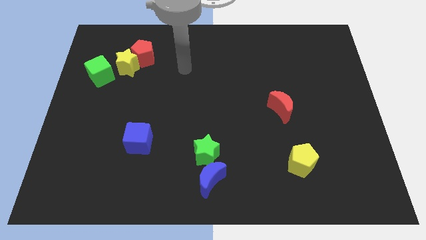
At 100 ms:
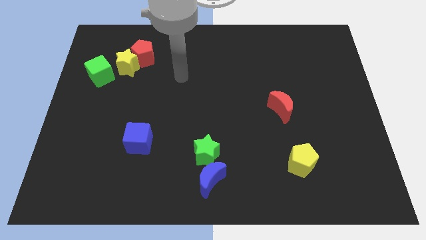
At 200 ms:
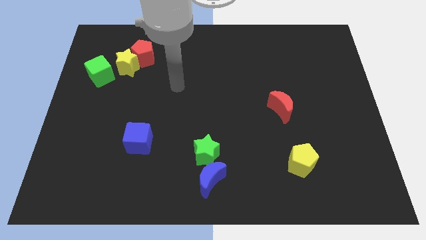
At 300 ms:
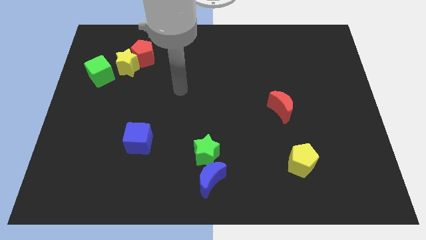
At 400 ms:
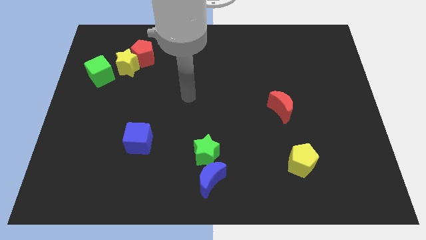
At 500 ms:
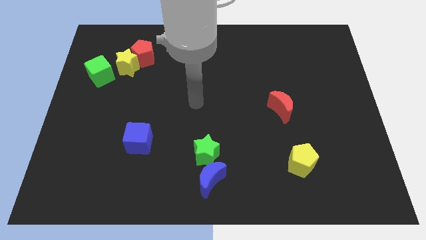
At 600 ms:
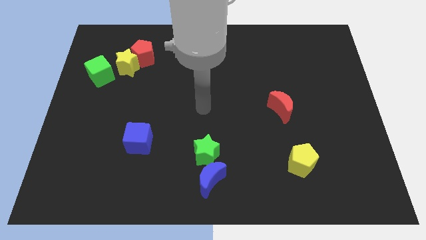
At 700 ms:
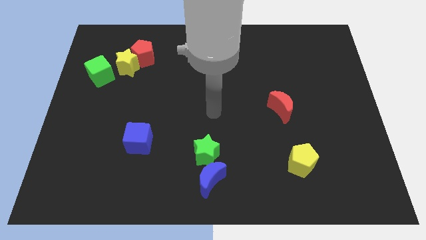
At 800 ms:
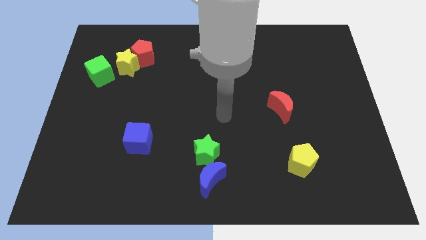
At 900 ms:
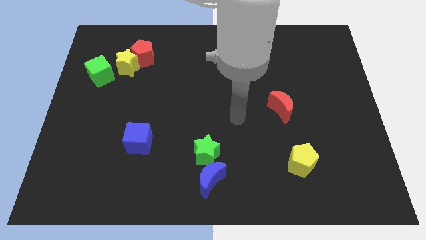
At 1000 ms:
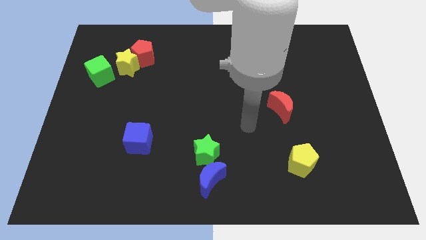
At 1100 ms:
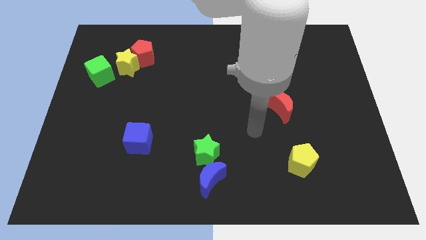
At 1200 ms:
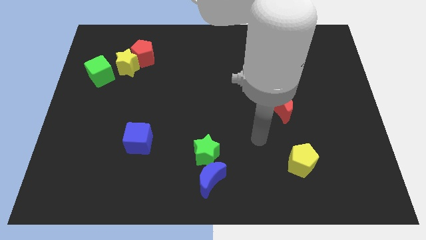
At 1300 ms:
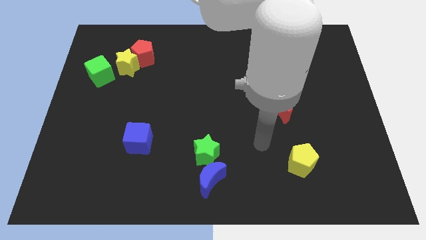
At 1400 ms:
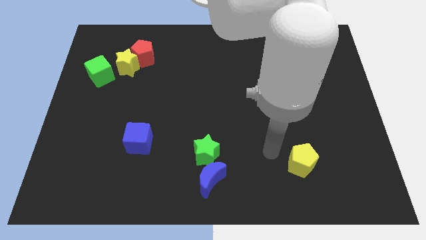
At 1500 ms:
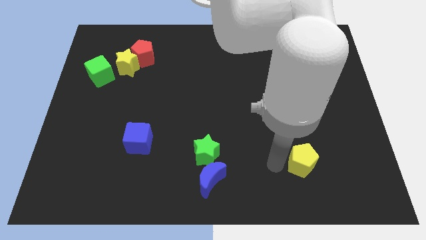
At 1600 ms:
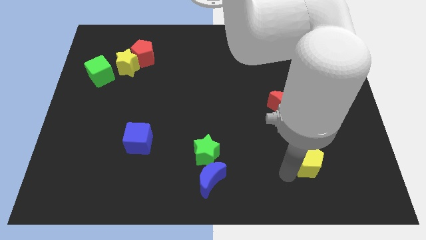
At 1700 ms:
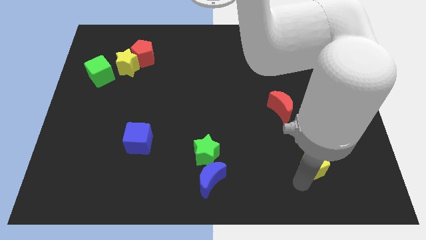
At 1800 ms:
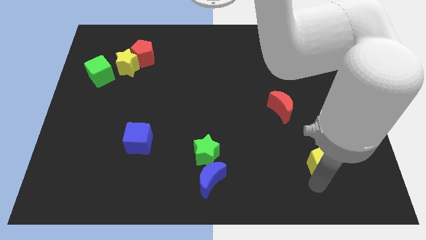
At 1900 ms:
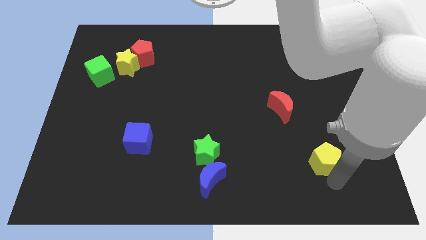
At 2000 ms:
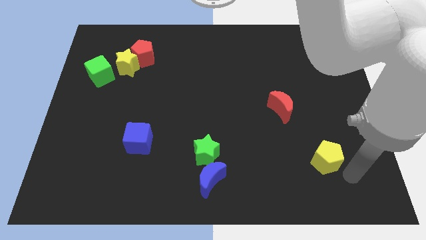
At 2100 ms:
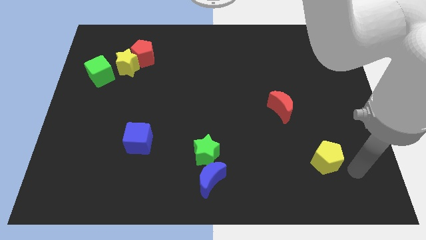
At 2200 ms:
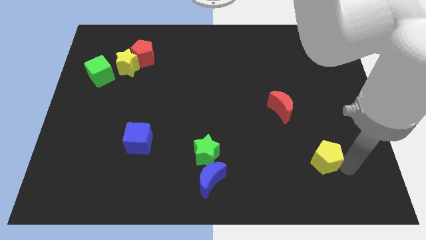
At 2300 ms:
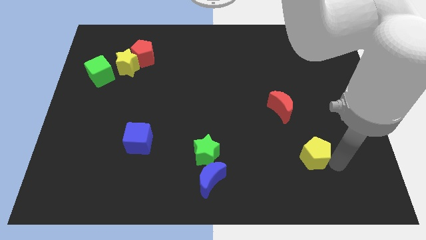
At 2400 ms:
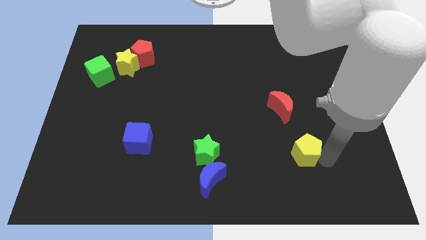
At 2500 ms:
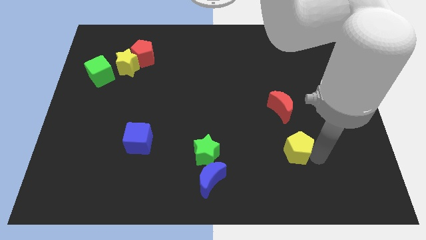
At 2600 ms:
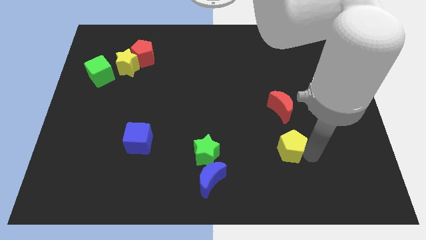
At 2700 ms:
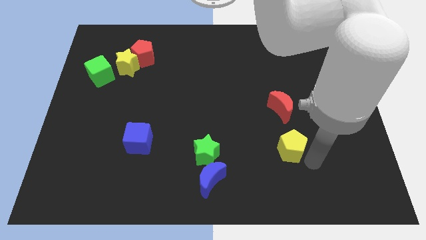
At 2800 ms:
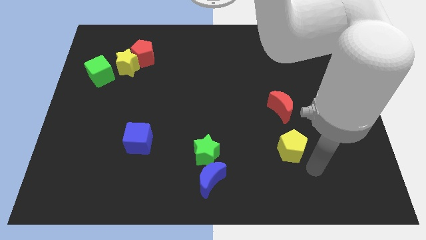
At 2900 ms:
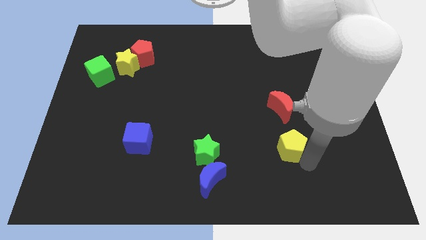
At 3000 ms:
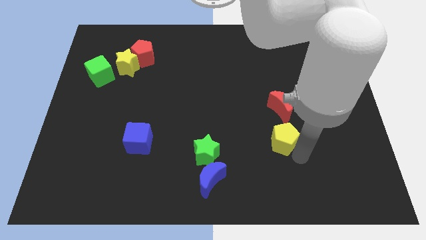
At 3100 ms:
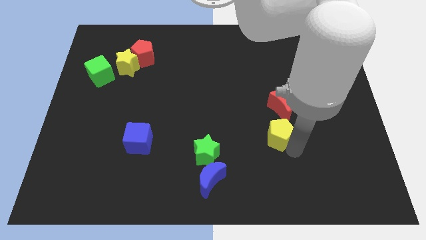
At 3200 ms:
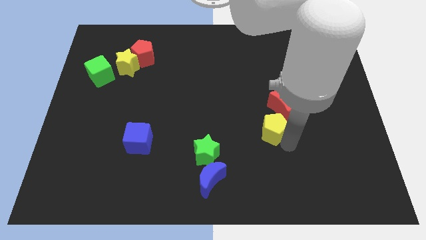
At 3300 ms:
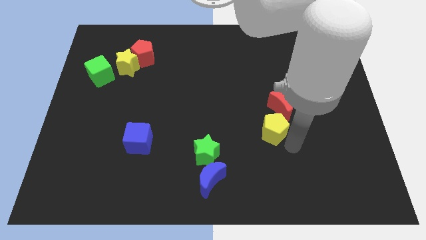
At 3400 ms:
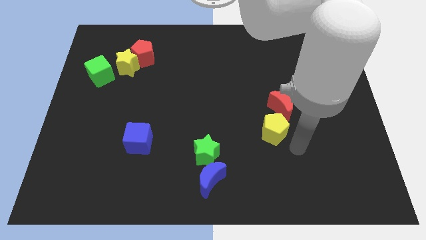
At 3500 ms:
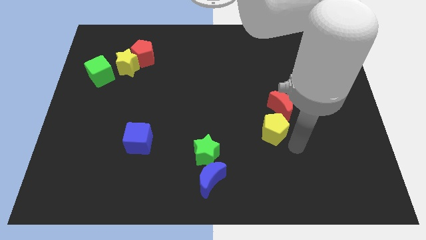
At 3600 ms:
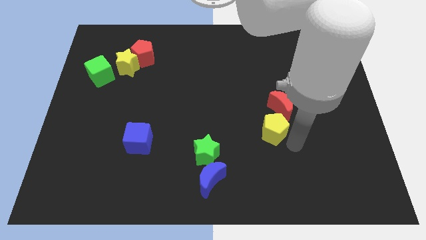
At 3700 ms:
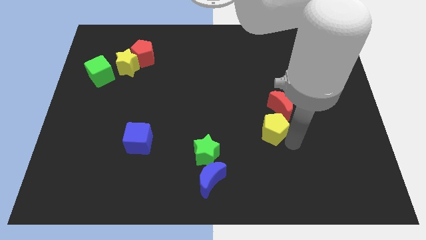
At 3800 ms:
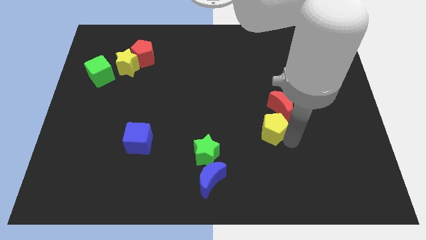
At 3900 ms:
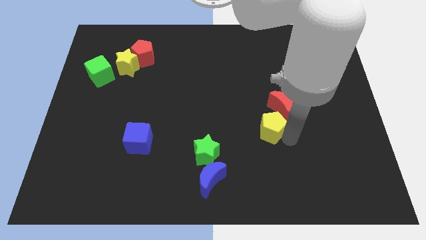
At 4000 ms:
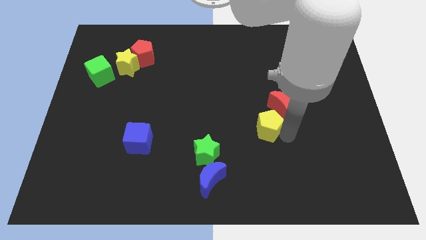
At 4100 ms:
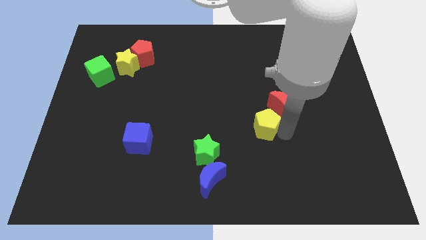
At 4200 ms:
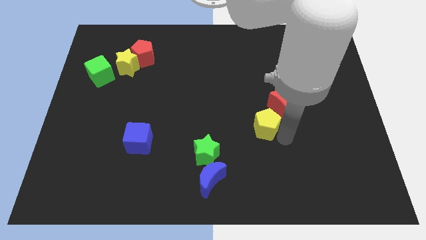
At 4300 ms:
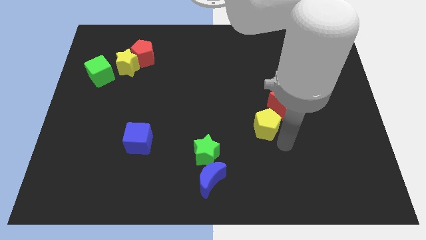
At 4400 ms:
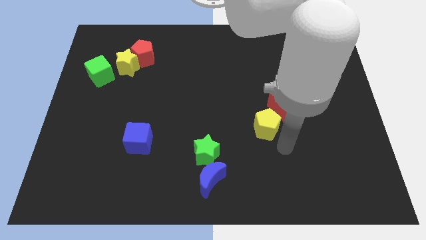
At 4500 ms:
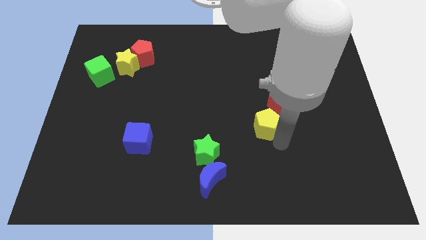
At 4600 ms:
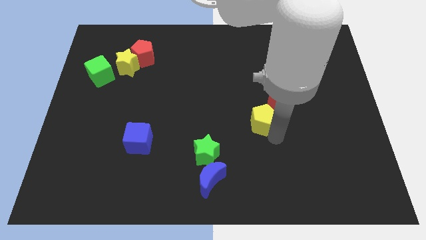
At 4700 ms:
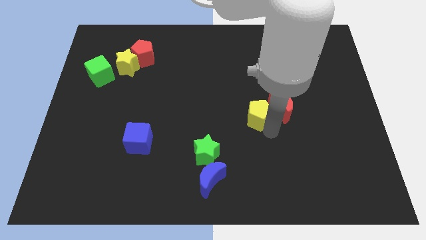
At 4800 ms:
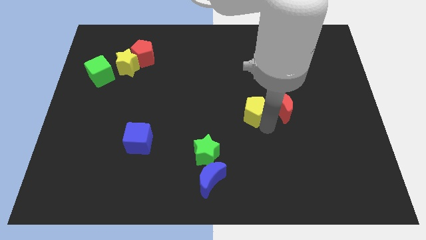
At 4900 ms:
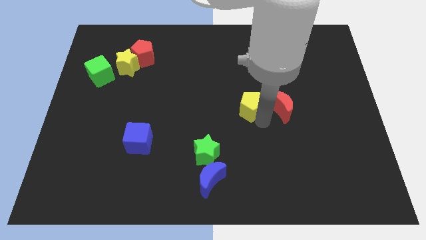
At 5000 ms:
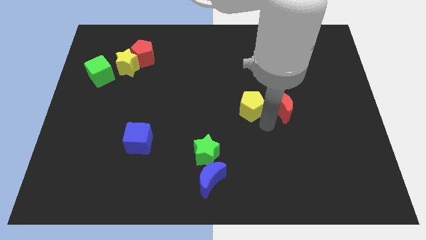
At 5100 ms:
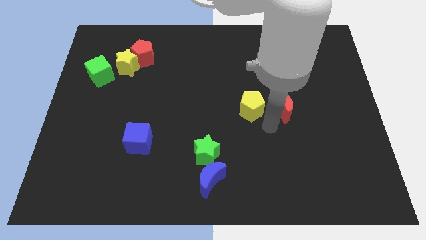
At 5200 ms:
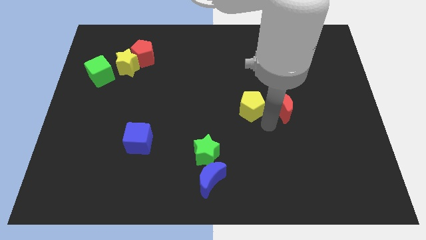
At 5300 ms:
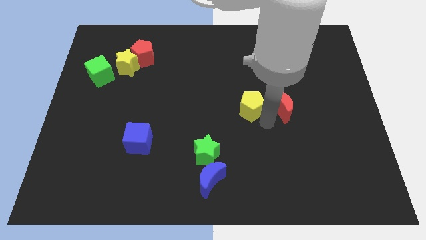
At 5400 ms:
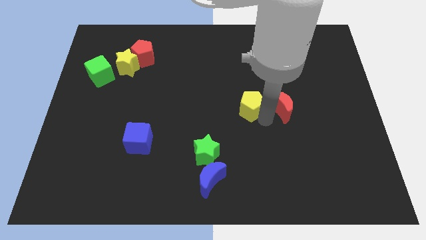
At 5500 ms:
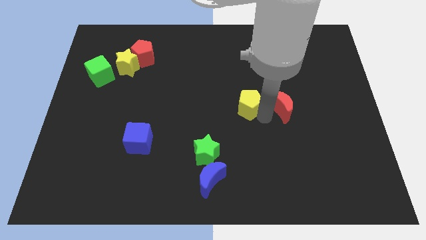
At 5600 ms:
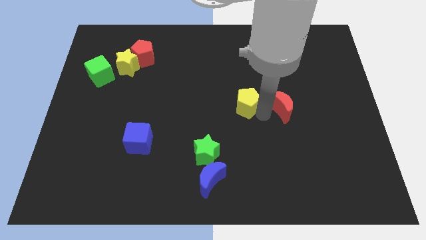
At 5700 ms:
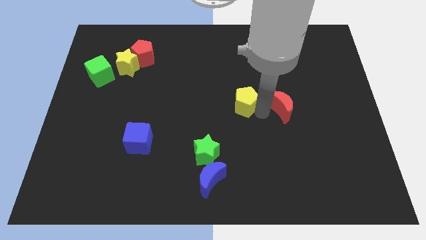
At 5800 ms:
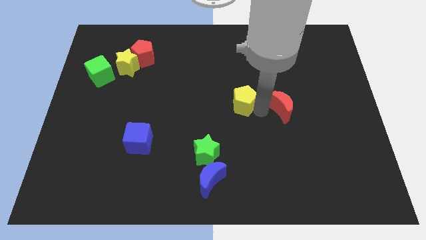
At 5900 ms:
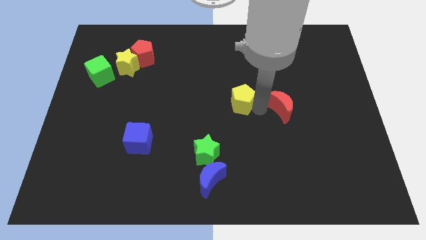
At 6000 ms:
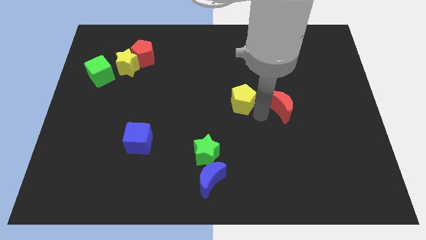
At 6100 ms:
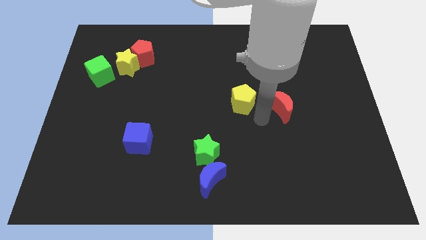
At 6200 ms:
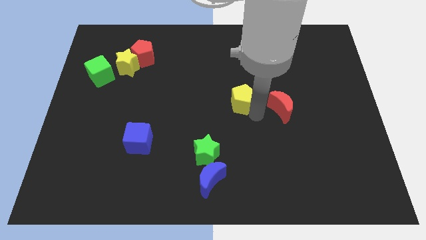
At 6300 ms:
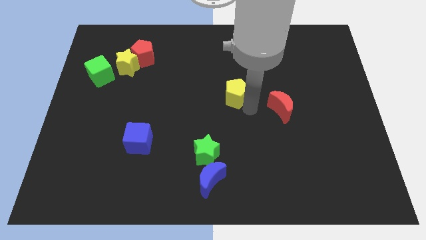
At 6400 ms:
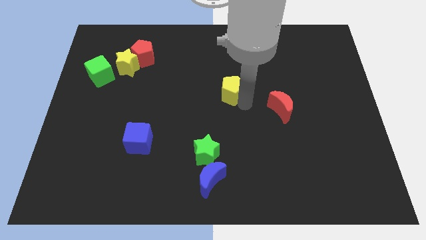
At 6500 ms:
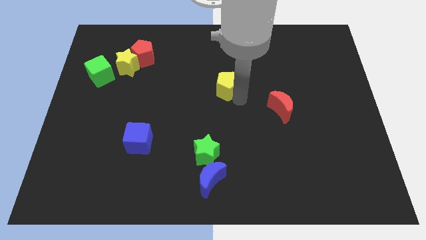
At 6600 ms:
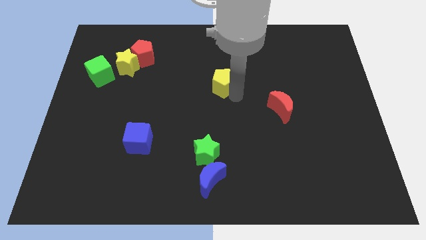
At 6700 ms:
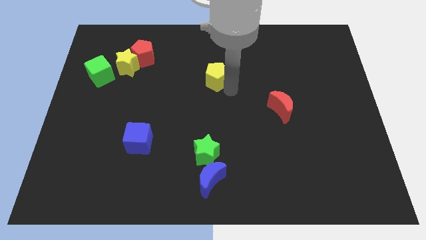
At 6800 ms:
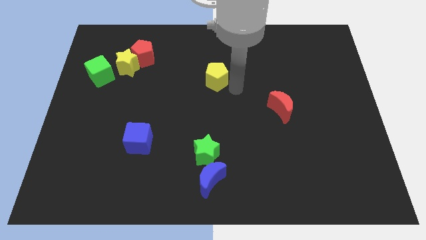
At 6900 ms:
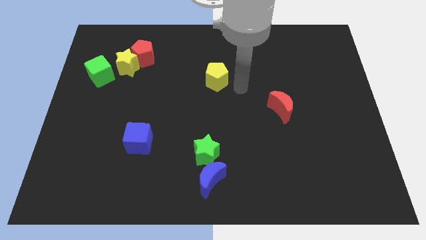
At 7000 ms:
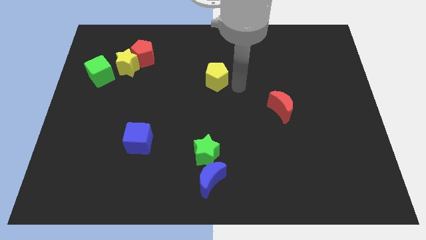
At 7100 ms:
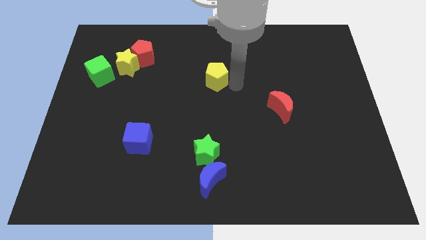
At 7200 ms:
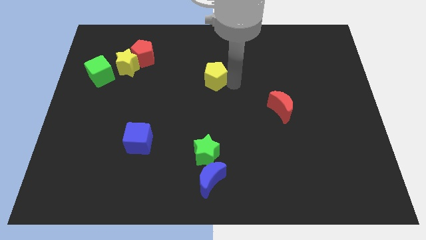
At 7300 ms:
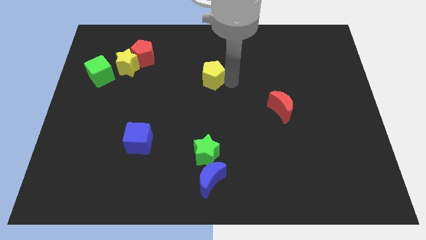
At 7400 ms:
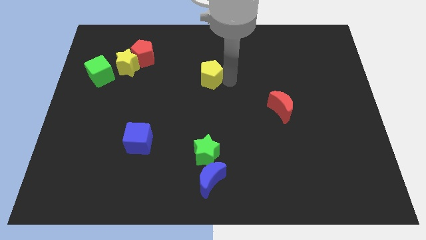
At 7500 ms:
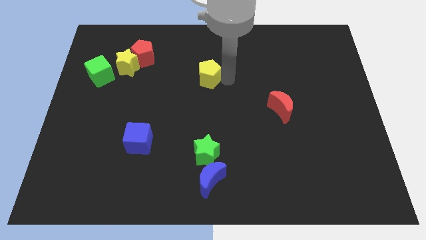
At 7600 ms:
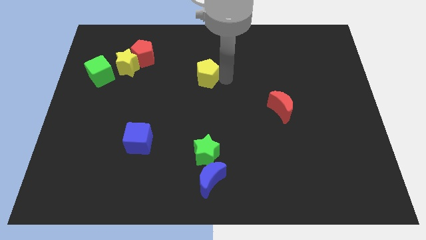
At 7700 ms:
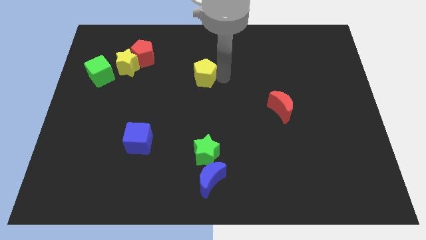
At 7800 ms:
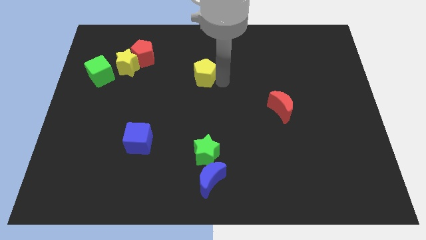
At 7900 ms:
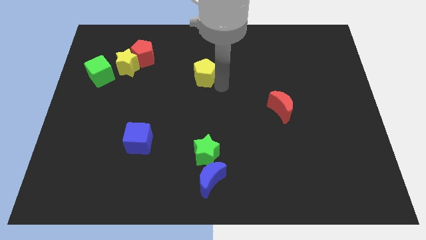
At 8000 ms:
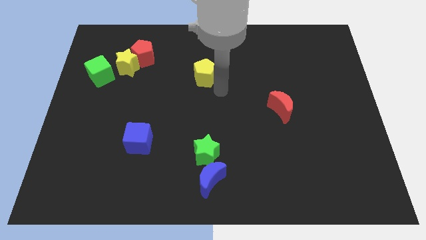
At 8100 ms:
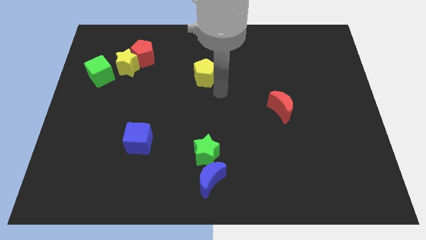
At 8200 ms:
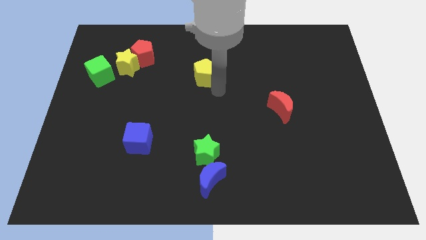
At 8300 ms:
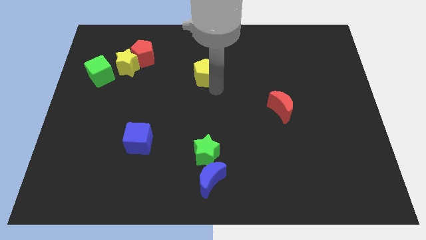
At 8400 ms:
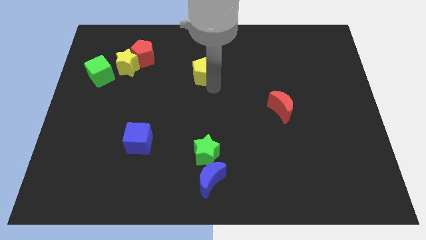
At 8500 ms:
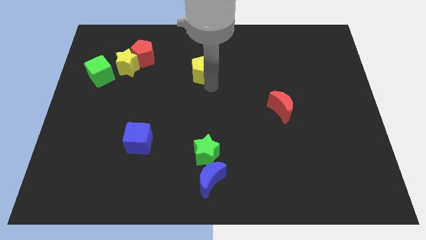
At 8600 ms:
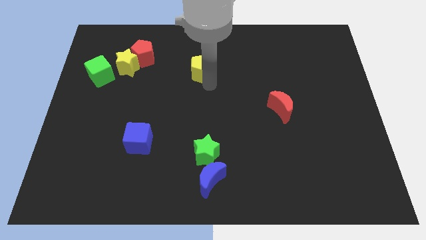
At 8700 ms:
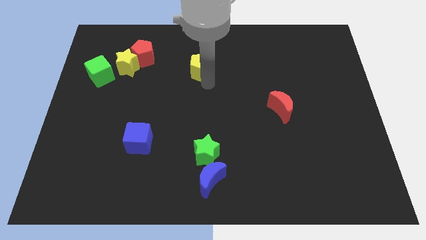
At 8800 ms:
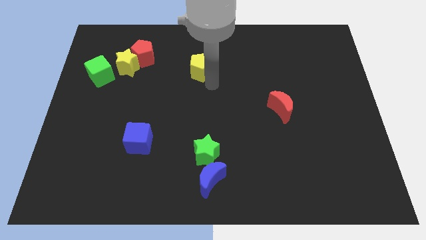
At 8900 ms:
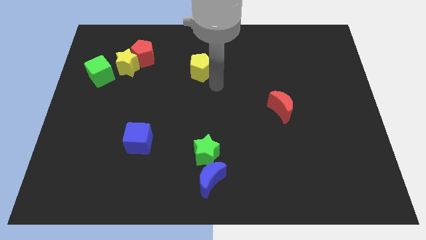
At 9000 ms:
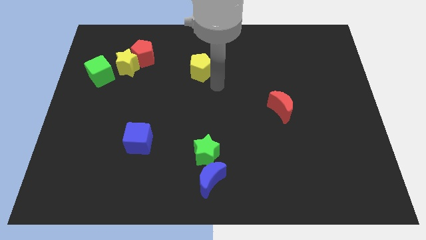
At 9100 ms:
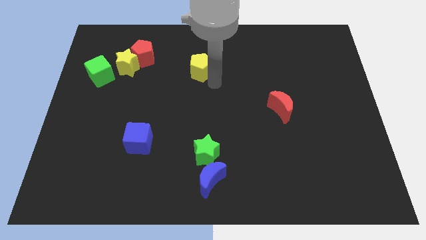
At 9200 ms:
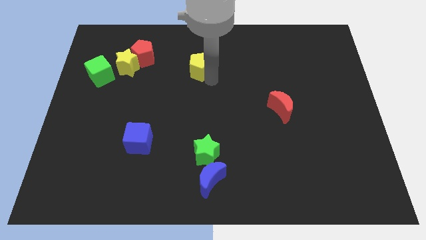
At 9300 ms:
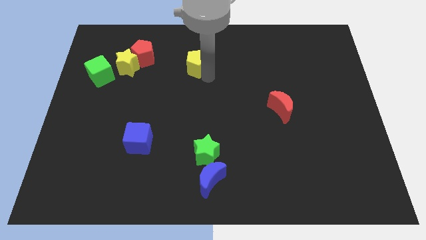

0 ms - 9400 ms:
put the yellow pentagon right of the red pentagon
